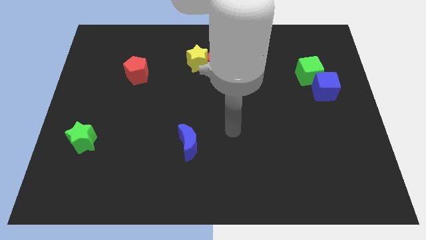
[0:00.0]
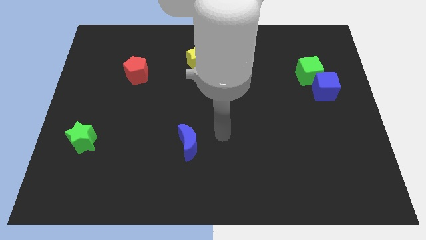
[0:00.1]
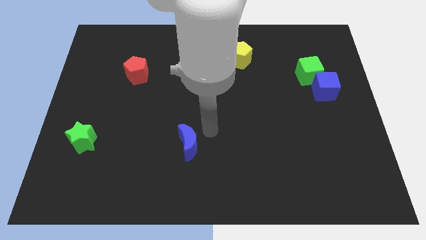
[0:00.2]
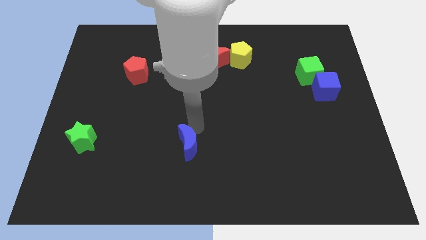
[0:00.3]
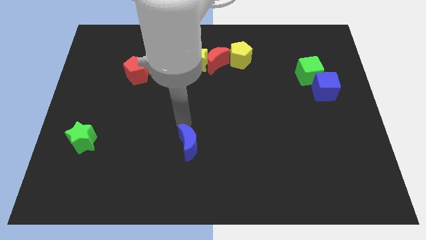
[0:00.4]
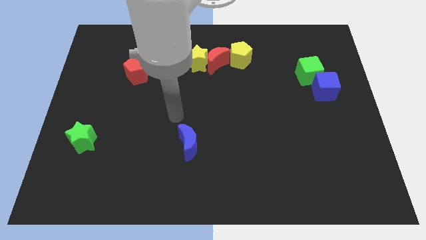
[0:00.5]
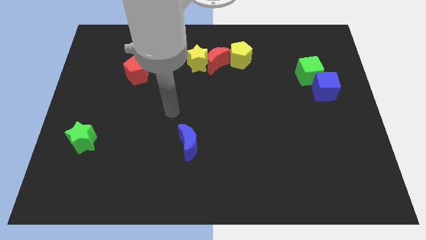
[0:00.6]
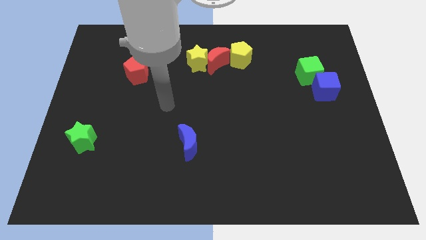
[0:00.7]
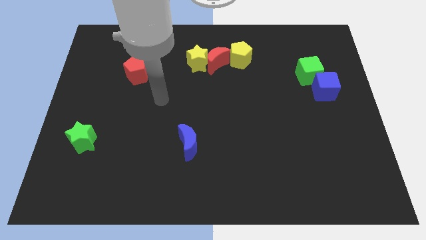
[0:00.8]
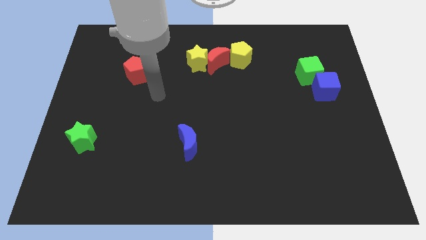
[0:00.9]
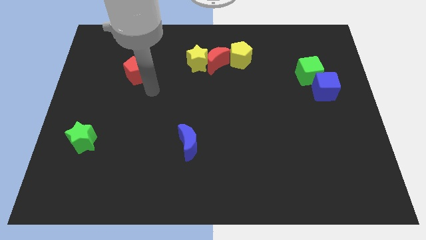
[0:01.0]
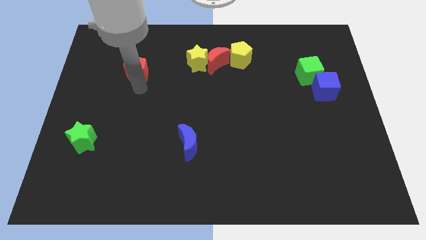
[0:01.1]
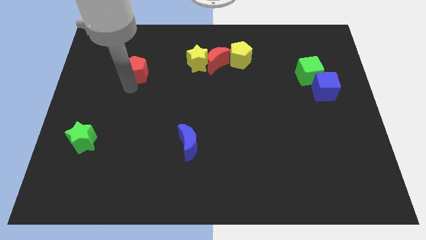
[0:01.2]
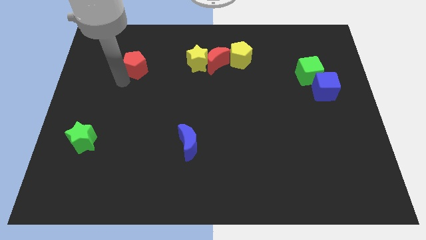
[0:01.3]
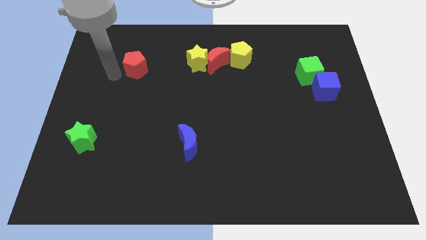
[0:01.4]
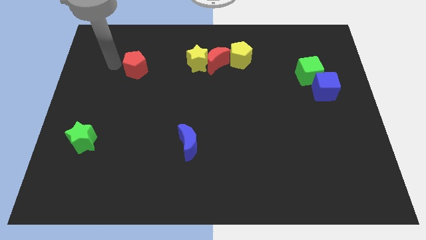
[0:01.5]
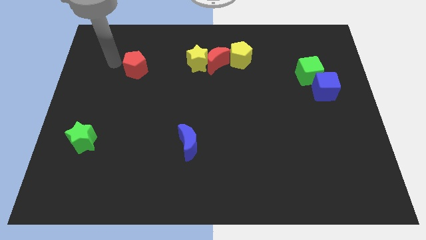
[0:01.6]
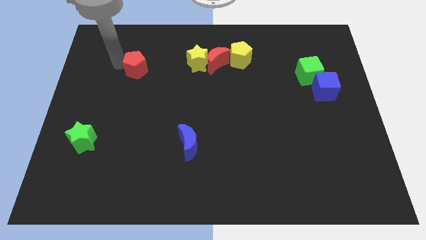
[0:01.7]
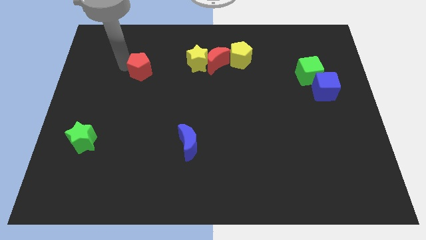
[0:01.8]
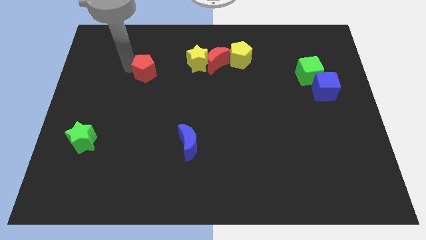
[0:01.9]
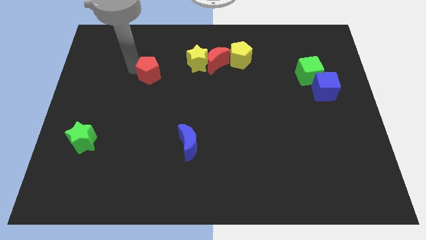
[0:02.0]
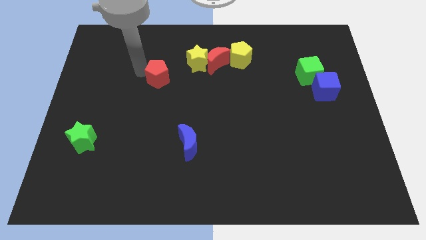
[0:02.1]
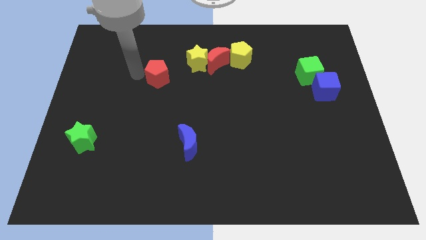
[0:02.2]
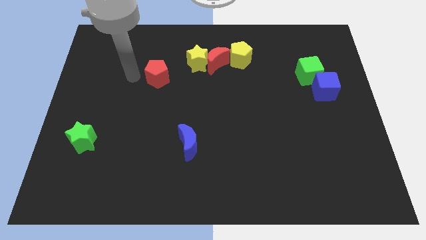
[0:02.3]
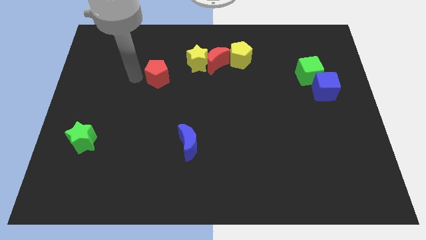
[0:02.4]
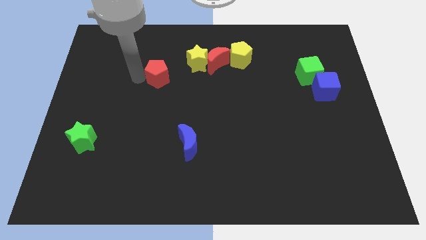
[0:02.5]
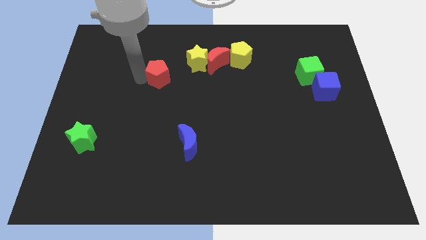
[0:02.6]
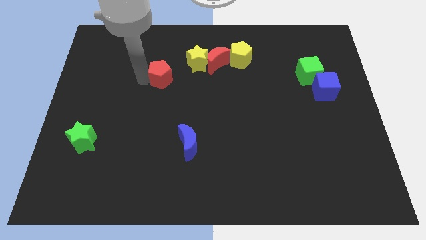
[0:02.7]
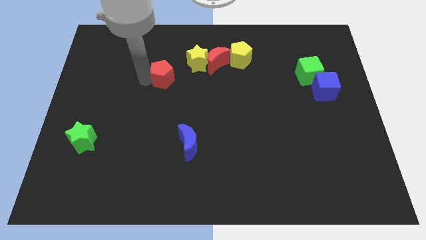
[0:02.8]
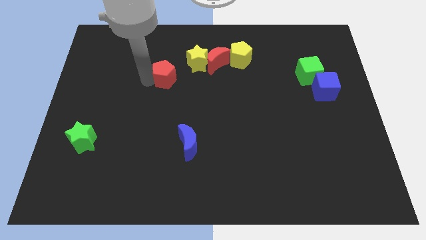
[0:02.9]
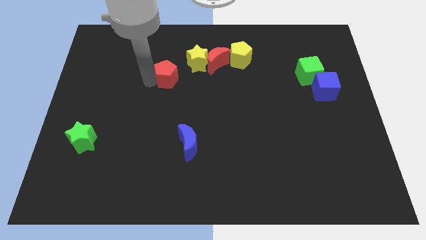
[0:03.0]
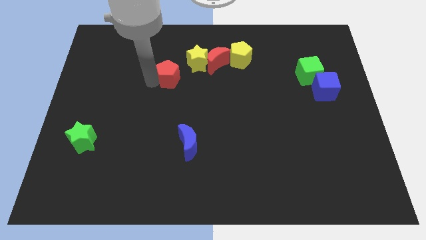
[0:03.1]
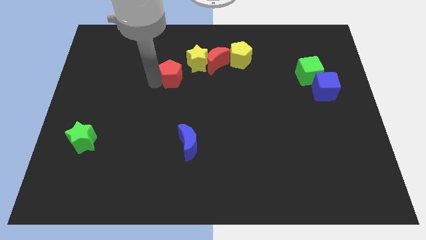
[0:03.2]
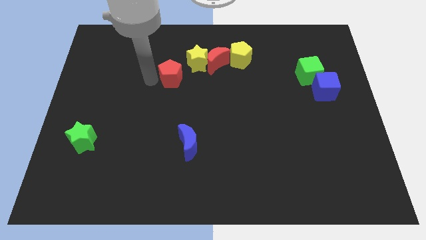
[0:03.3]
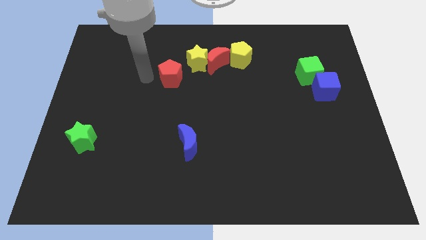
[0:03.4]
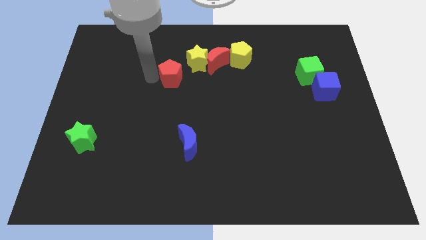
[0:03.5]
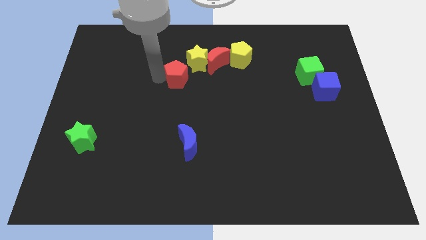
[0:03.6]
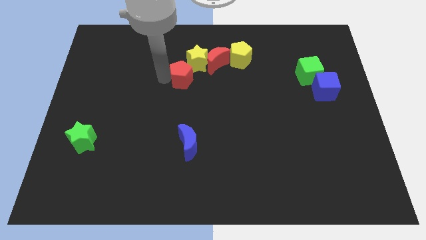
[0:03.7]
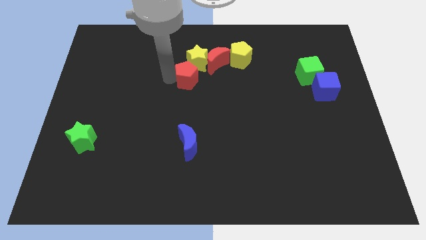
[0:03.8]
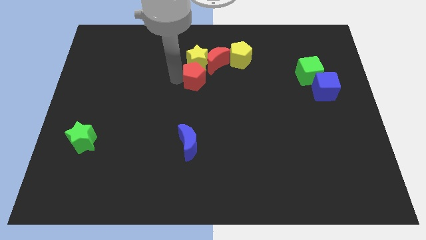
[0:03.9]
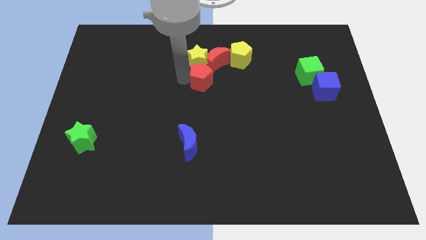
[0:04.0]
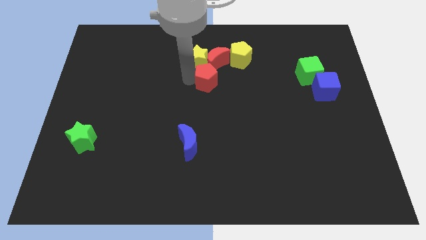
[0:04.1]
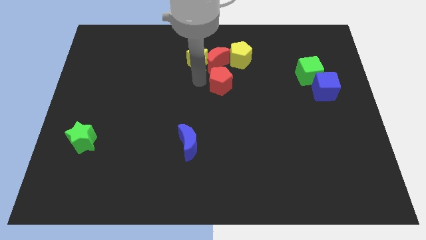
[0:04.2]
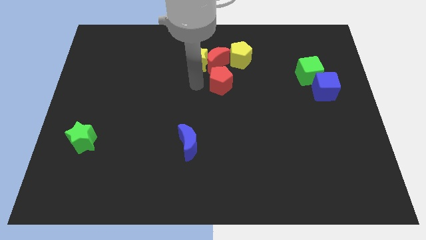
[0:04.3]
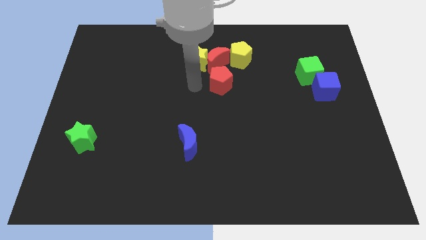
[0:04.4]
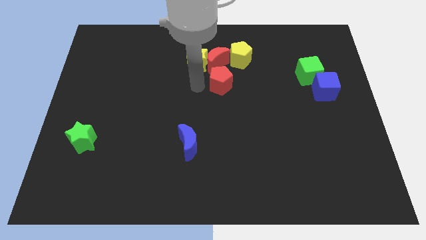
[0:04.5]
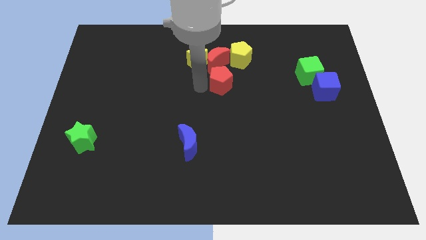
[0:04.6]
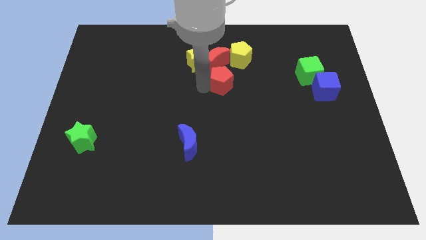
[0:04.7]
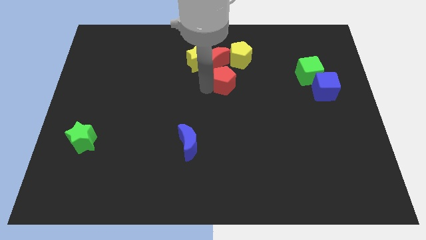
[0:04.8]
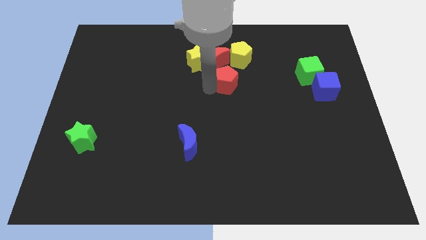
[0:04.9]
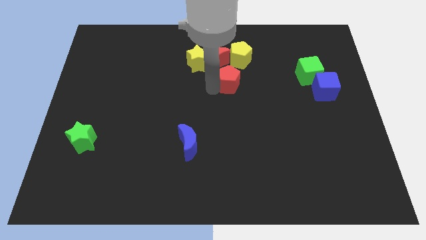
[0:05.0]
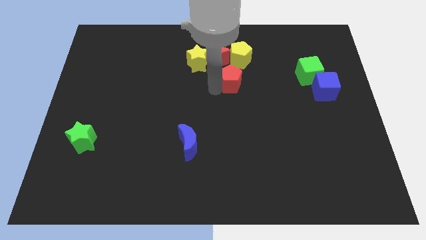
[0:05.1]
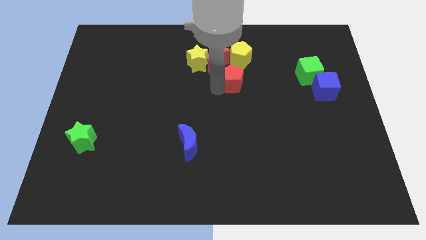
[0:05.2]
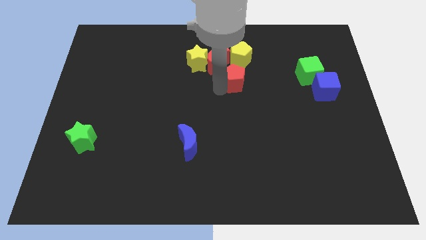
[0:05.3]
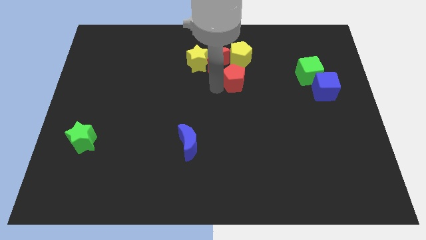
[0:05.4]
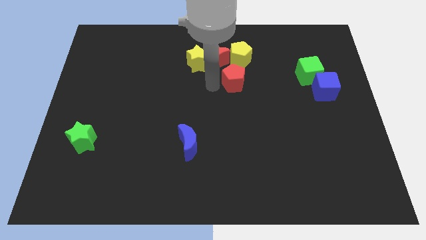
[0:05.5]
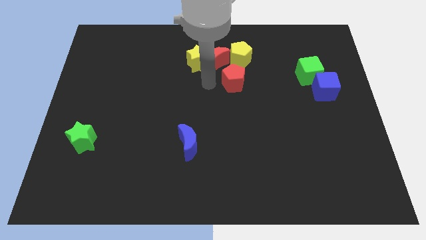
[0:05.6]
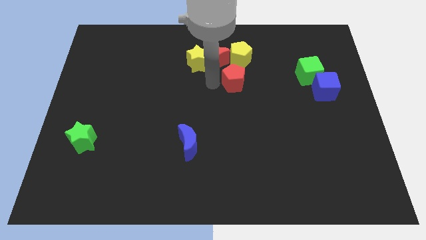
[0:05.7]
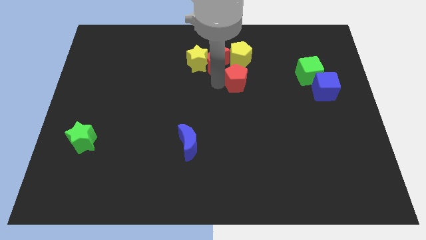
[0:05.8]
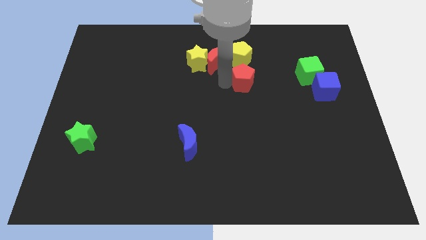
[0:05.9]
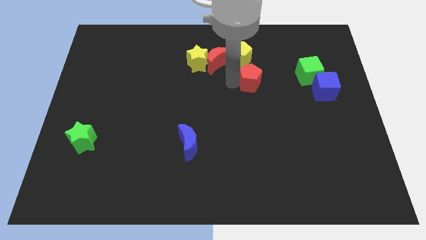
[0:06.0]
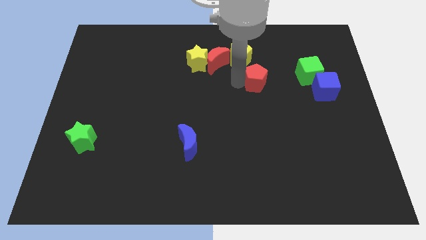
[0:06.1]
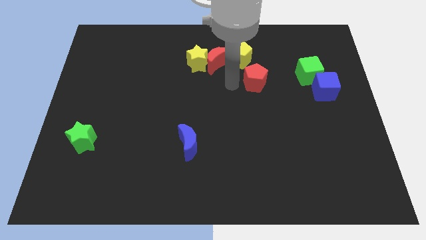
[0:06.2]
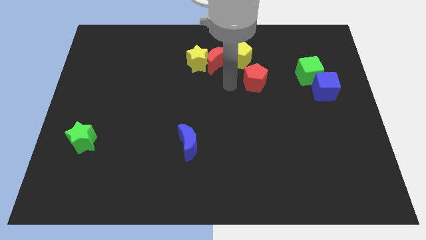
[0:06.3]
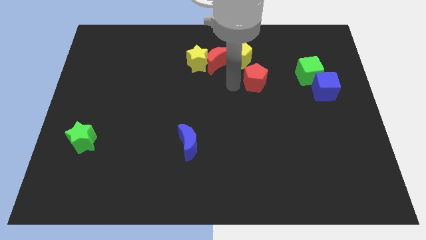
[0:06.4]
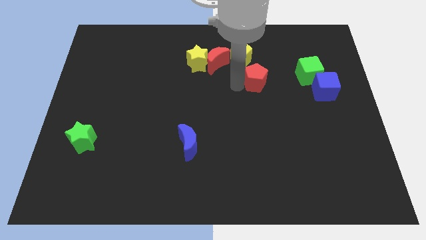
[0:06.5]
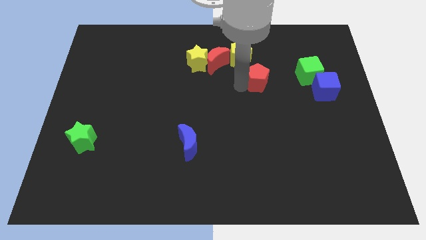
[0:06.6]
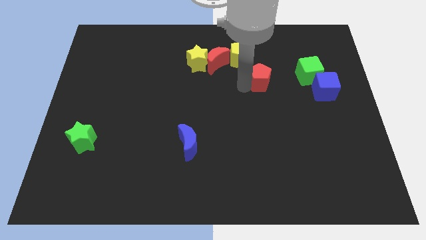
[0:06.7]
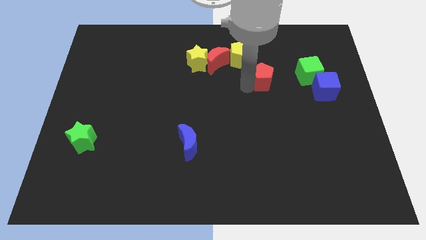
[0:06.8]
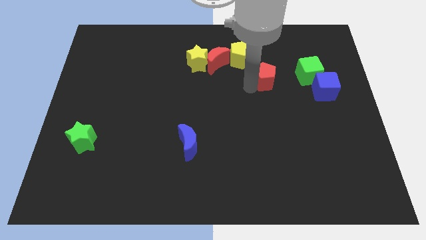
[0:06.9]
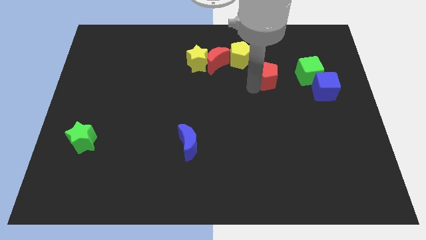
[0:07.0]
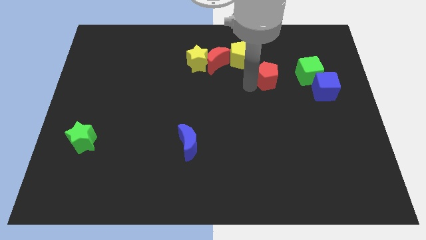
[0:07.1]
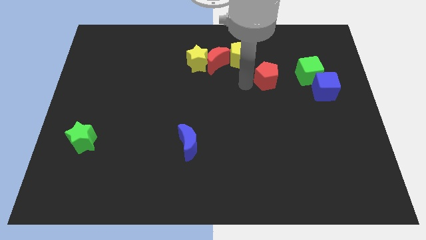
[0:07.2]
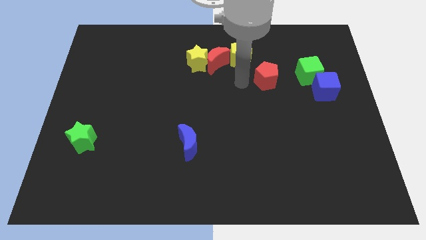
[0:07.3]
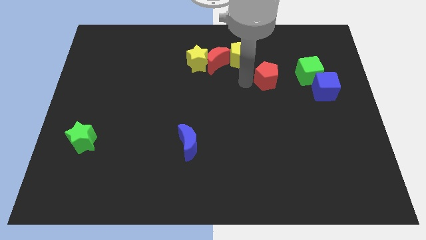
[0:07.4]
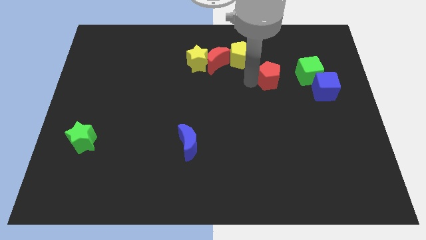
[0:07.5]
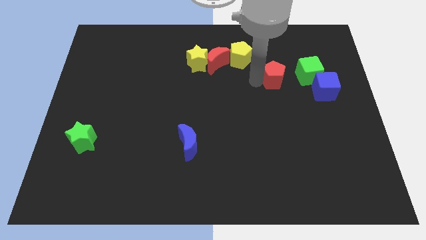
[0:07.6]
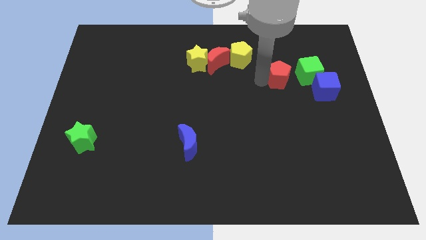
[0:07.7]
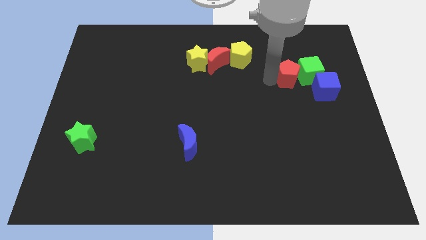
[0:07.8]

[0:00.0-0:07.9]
put the red pentagon to the green cube
